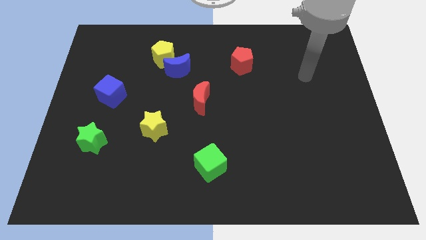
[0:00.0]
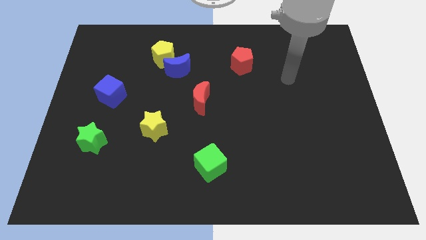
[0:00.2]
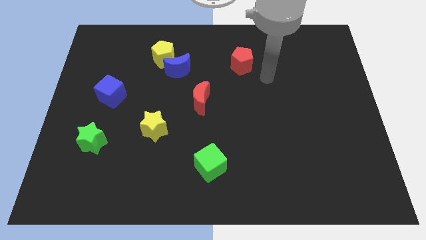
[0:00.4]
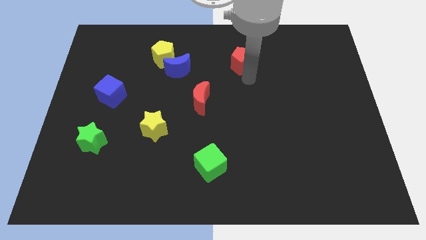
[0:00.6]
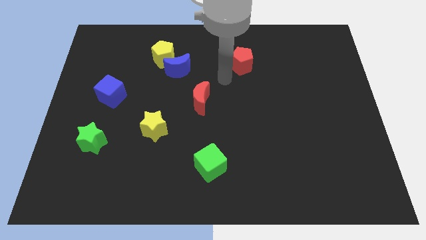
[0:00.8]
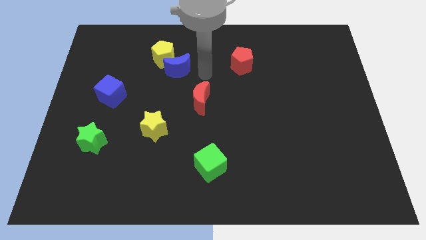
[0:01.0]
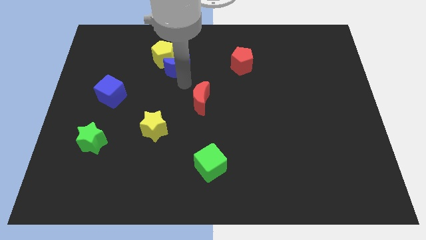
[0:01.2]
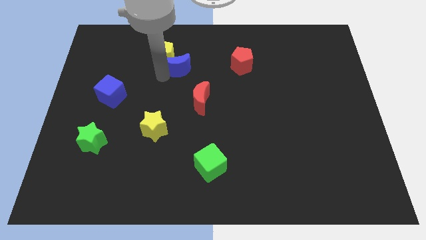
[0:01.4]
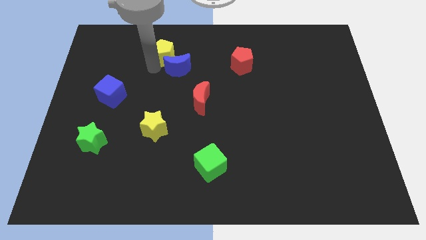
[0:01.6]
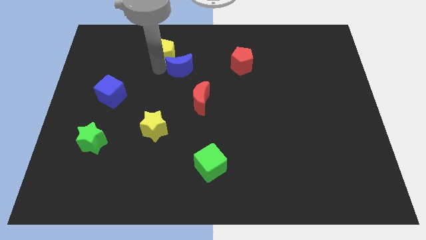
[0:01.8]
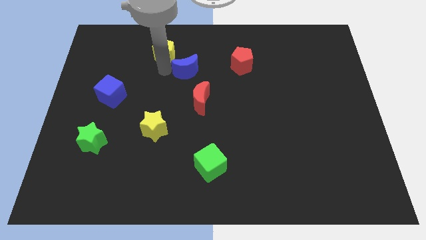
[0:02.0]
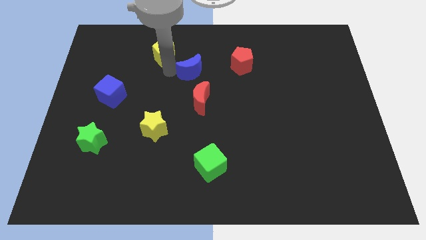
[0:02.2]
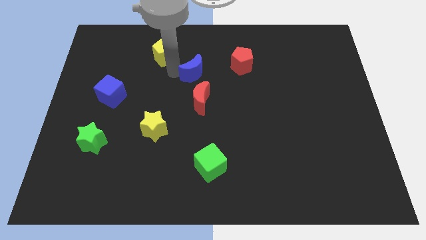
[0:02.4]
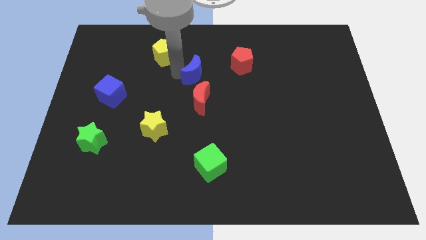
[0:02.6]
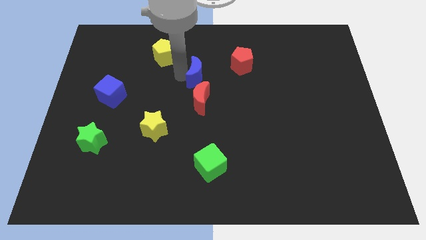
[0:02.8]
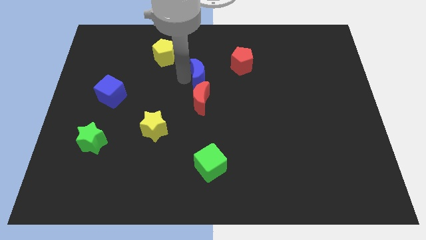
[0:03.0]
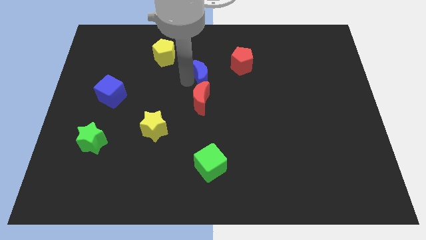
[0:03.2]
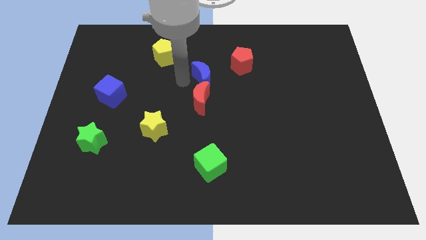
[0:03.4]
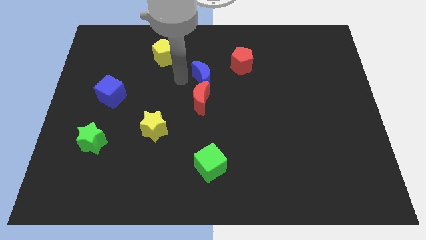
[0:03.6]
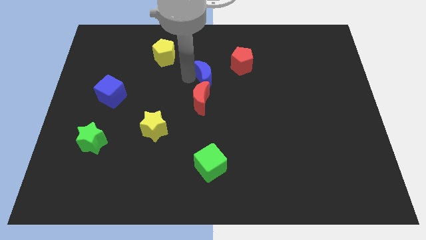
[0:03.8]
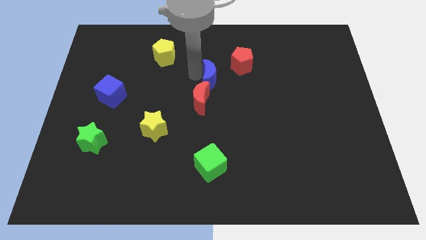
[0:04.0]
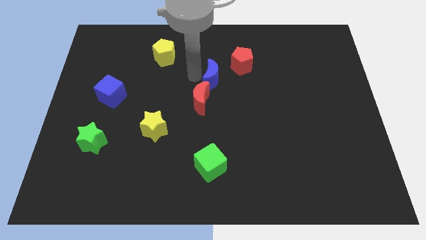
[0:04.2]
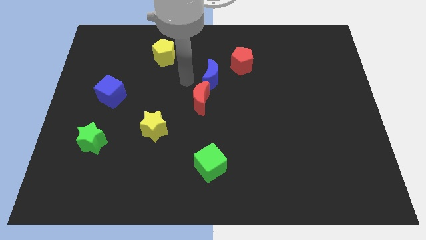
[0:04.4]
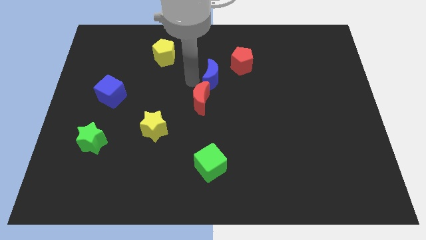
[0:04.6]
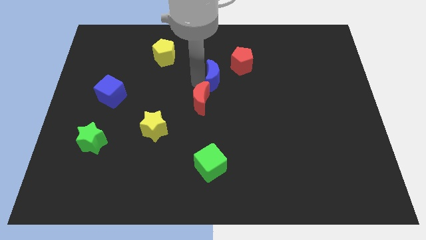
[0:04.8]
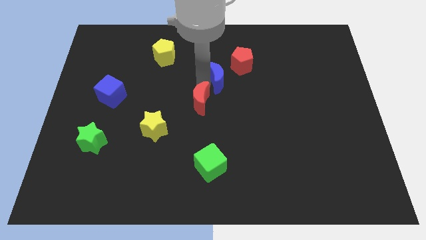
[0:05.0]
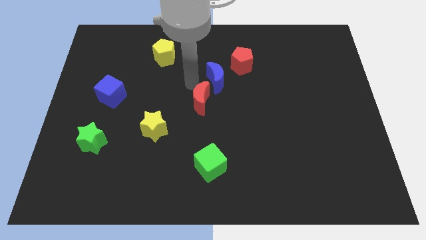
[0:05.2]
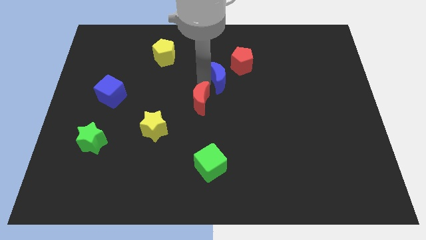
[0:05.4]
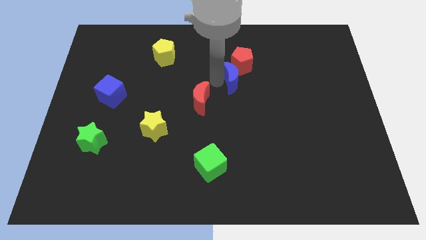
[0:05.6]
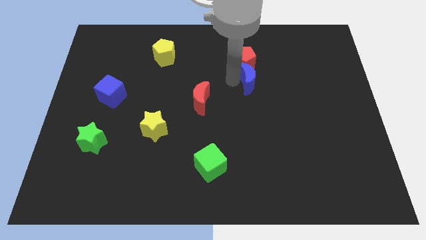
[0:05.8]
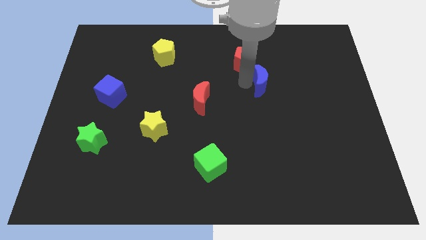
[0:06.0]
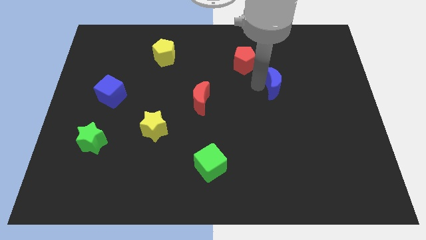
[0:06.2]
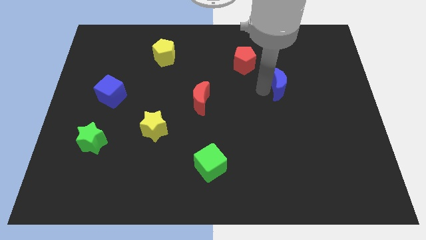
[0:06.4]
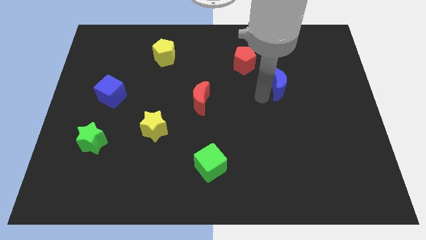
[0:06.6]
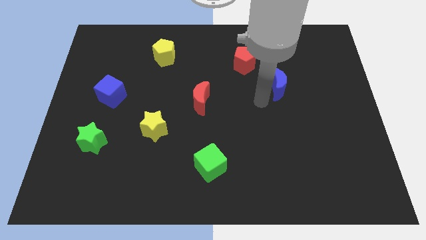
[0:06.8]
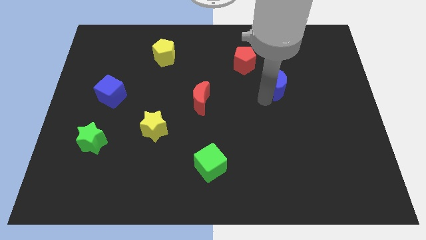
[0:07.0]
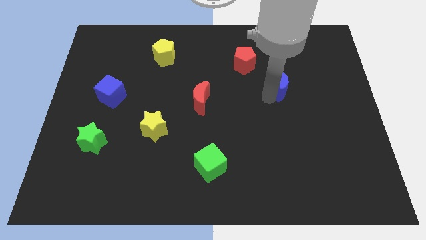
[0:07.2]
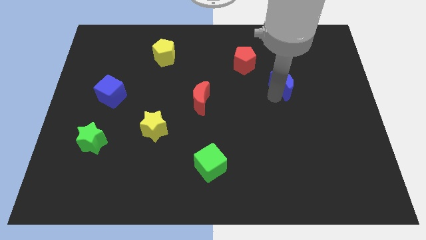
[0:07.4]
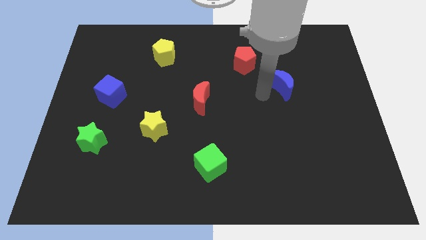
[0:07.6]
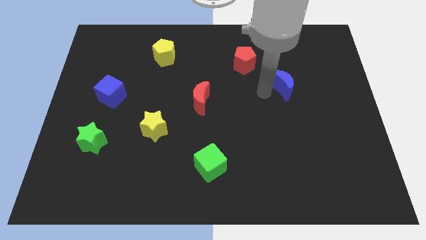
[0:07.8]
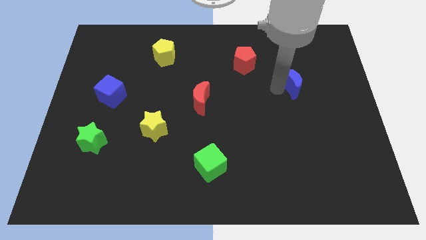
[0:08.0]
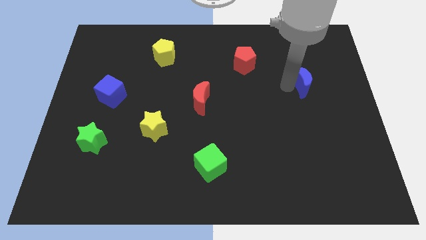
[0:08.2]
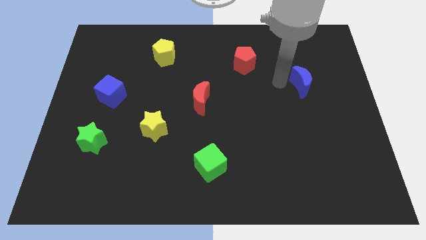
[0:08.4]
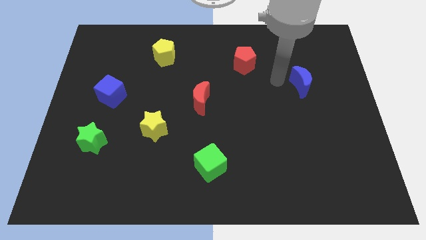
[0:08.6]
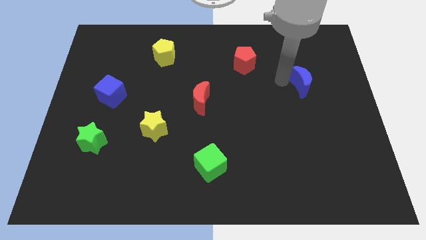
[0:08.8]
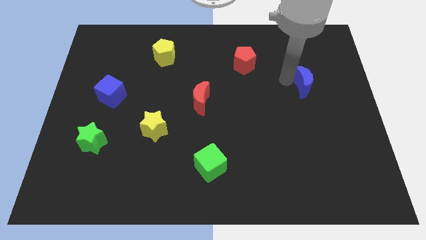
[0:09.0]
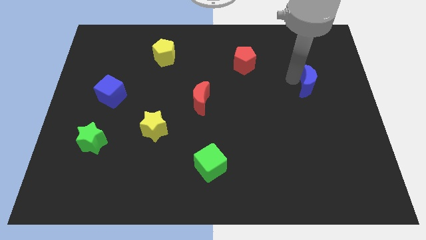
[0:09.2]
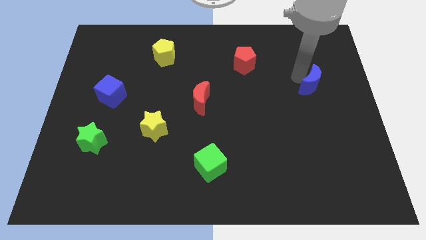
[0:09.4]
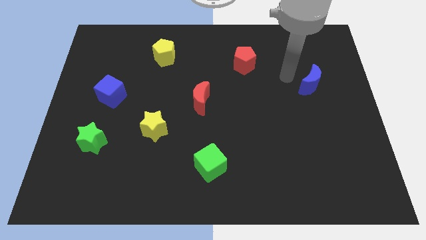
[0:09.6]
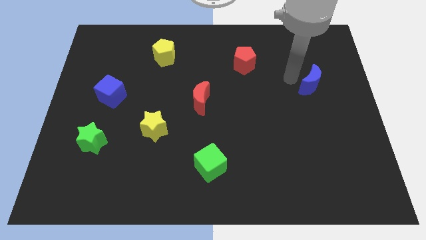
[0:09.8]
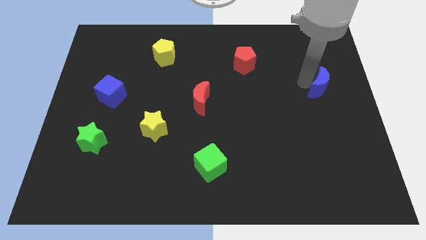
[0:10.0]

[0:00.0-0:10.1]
push the blue moon to the center right

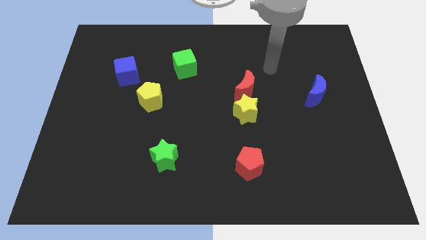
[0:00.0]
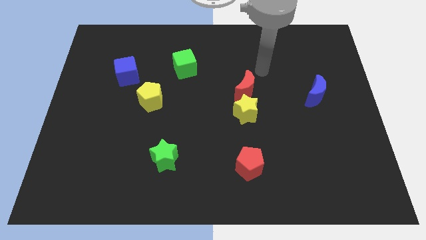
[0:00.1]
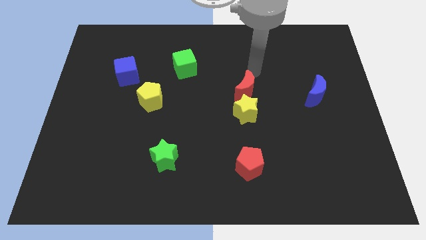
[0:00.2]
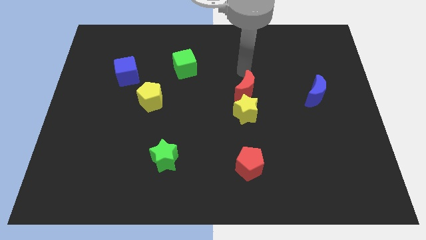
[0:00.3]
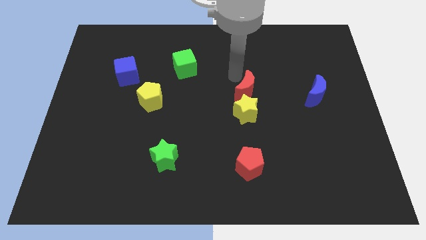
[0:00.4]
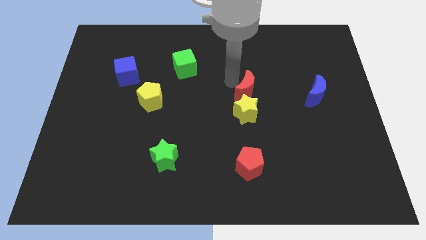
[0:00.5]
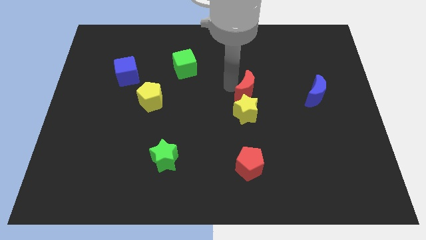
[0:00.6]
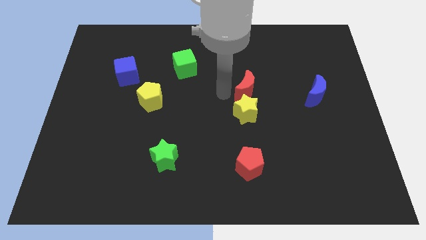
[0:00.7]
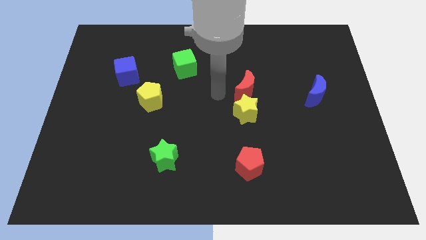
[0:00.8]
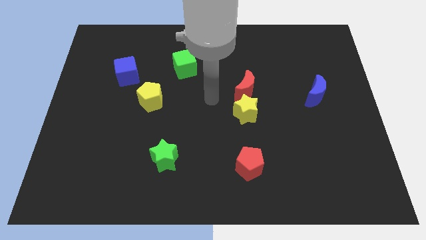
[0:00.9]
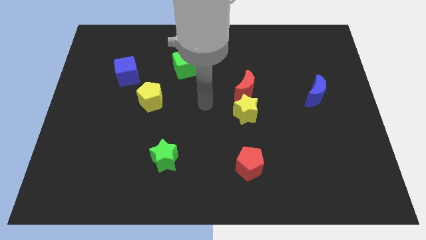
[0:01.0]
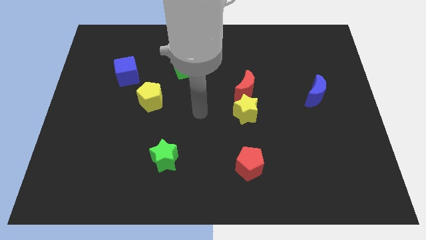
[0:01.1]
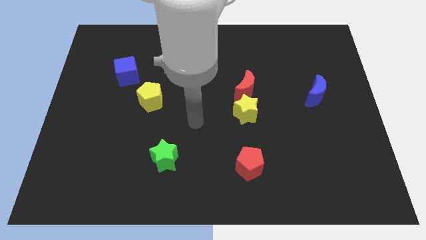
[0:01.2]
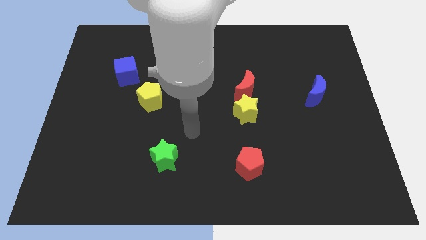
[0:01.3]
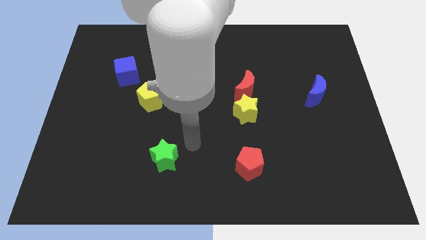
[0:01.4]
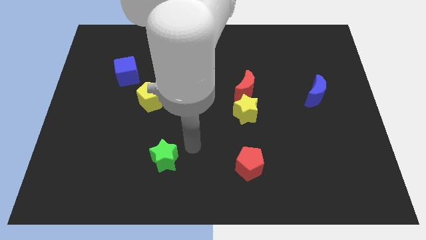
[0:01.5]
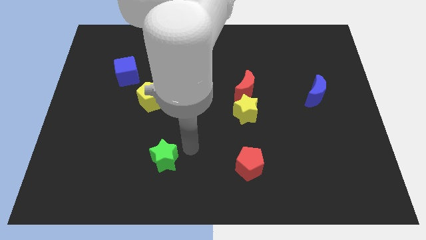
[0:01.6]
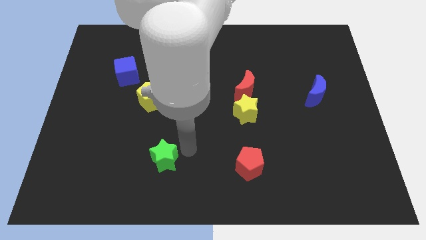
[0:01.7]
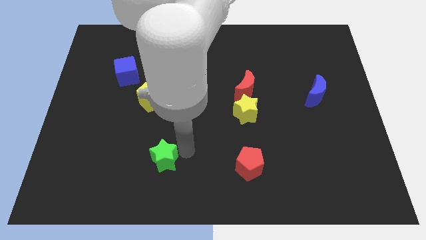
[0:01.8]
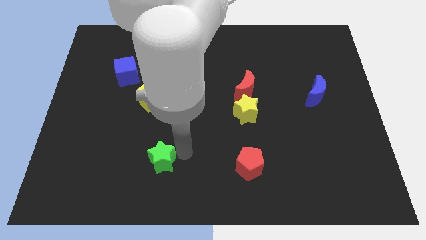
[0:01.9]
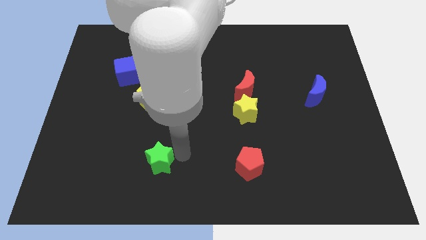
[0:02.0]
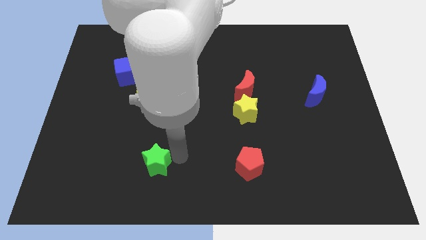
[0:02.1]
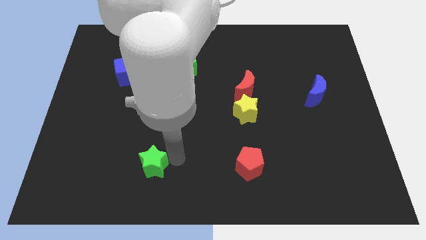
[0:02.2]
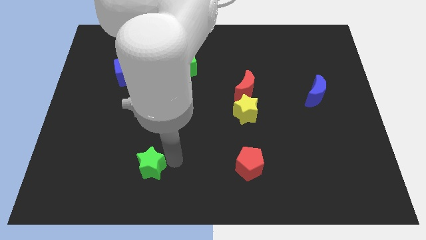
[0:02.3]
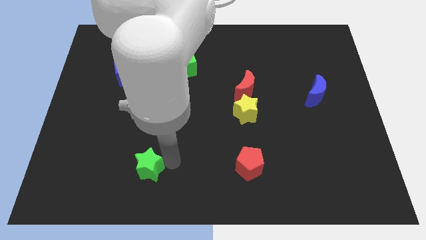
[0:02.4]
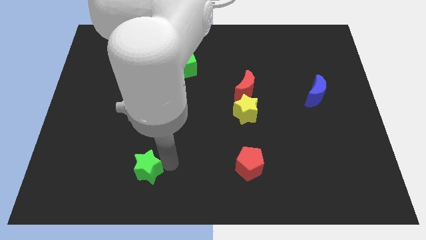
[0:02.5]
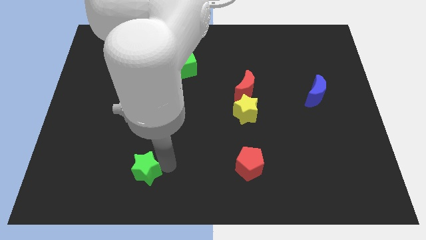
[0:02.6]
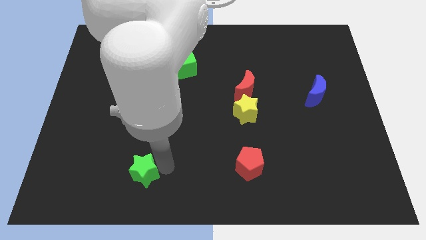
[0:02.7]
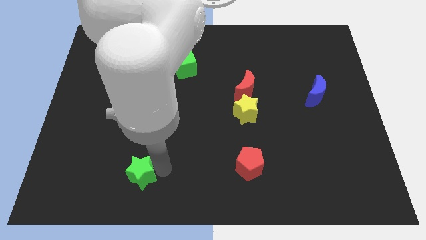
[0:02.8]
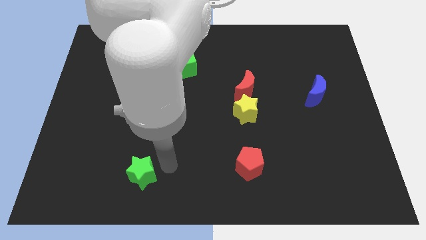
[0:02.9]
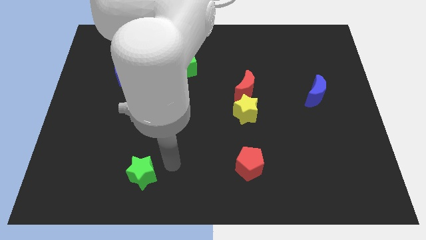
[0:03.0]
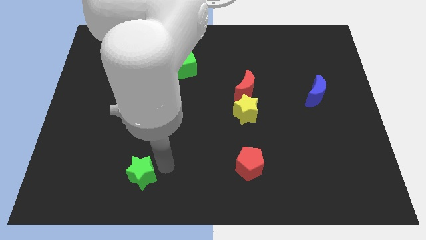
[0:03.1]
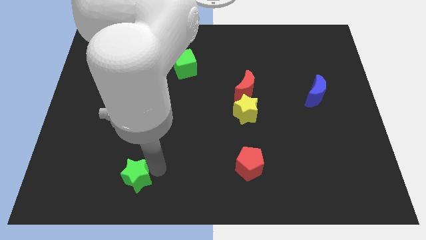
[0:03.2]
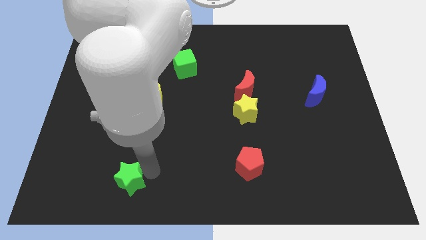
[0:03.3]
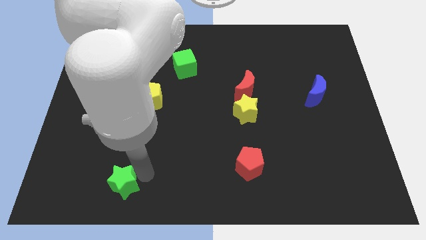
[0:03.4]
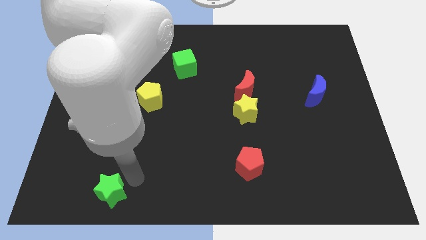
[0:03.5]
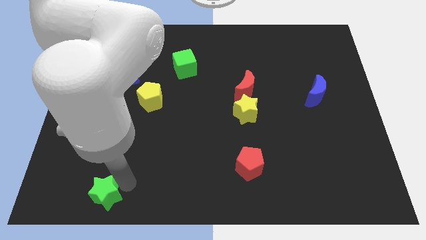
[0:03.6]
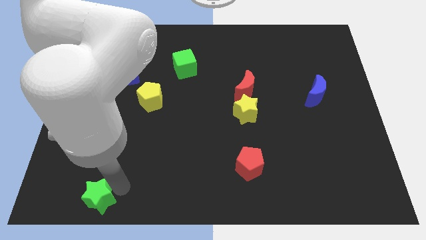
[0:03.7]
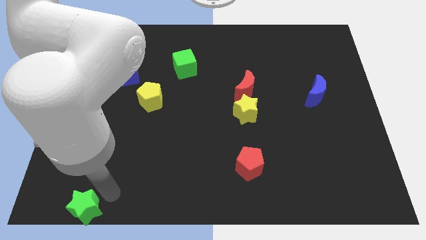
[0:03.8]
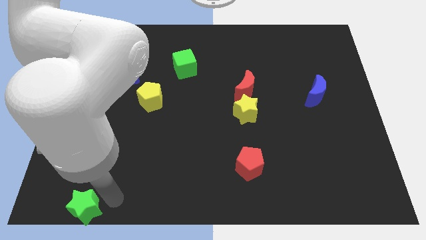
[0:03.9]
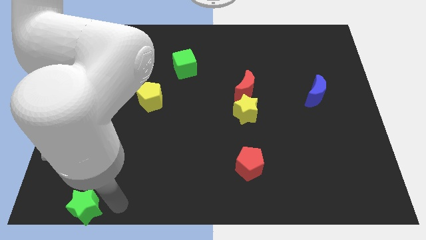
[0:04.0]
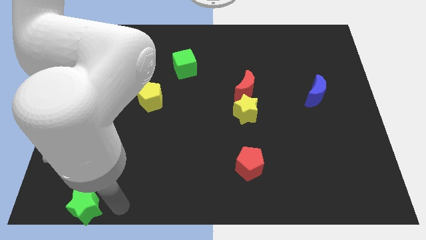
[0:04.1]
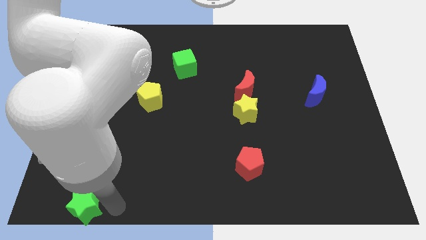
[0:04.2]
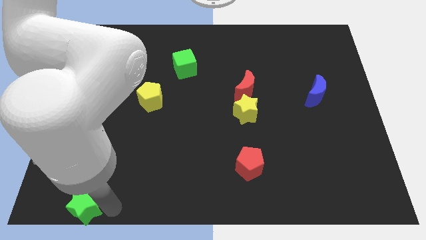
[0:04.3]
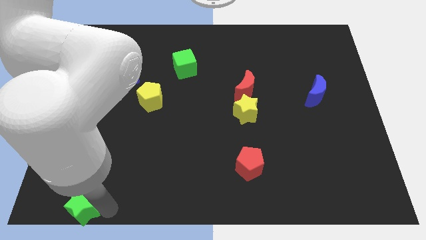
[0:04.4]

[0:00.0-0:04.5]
put the green star to the bottom left
